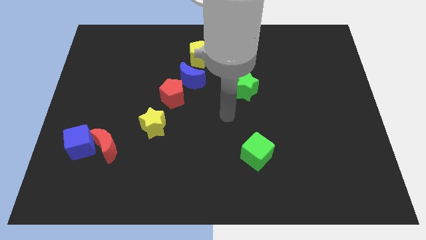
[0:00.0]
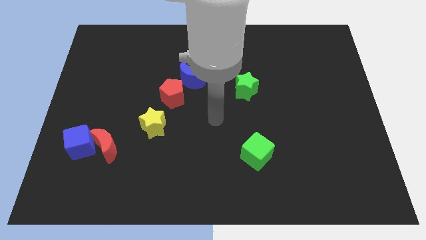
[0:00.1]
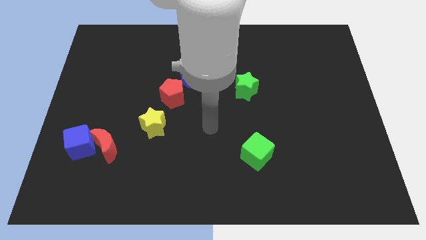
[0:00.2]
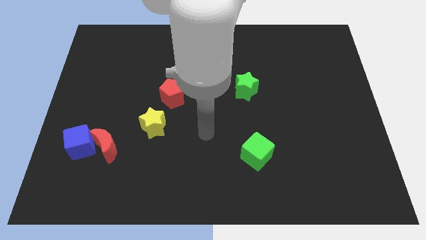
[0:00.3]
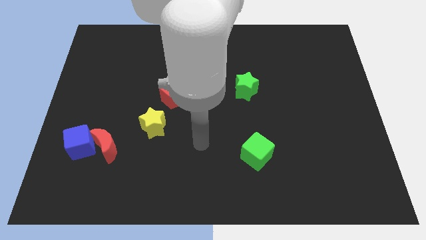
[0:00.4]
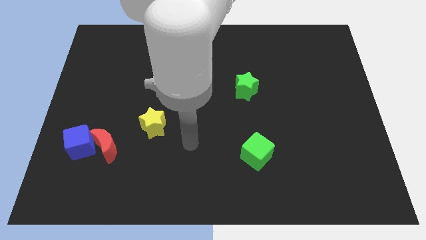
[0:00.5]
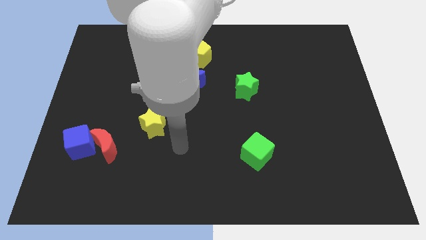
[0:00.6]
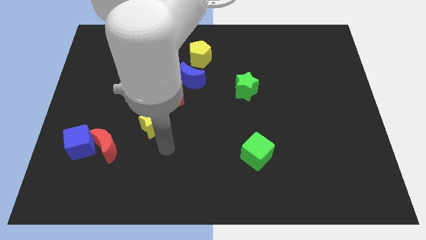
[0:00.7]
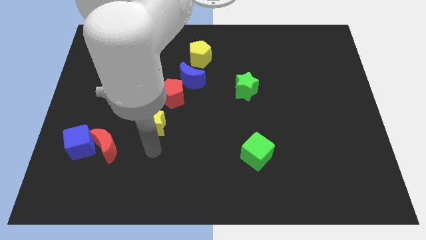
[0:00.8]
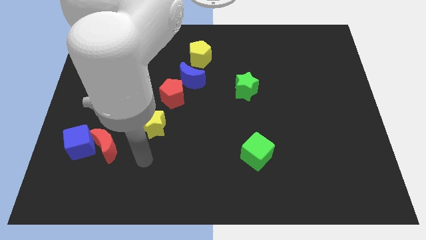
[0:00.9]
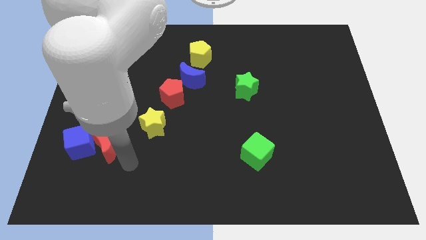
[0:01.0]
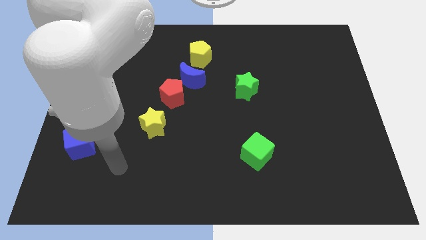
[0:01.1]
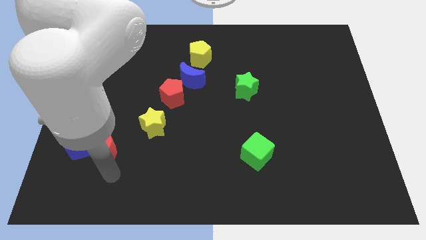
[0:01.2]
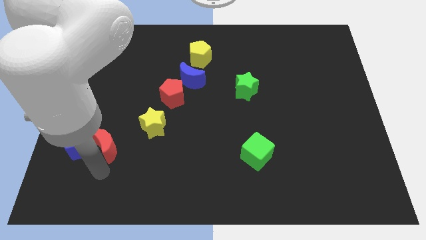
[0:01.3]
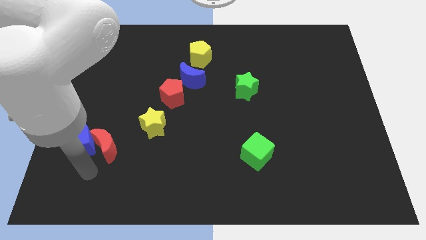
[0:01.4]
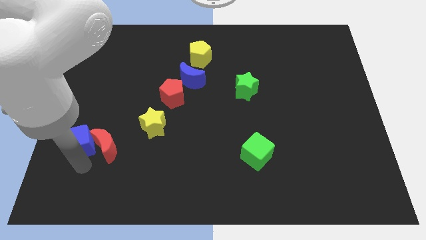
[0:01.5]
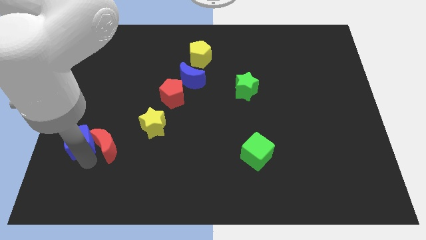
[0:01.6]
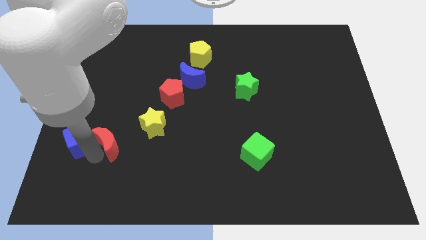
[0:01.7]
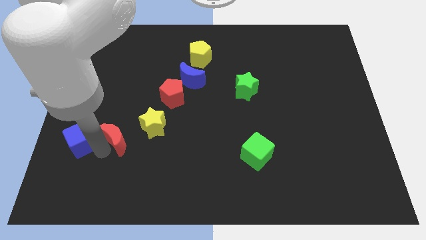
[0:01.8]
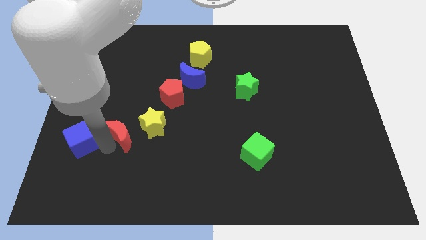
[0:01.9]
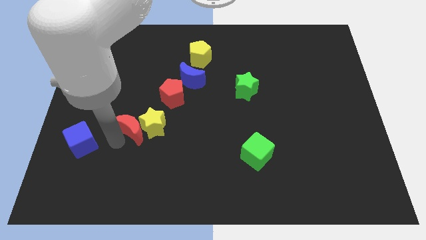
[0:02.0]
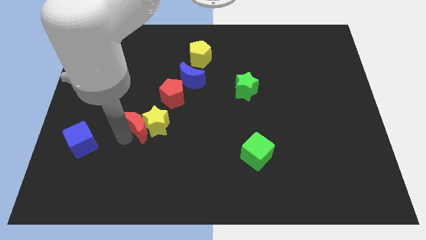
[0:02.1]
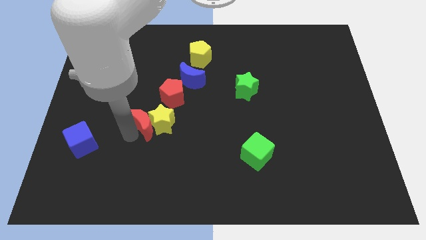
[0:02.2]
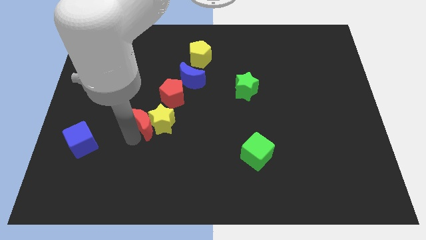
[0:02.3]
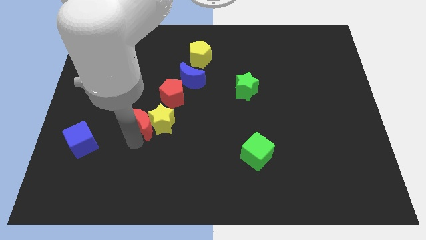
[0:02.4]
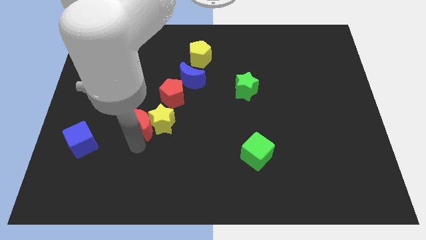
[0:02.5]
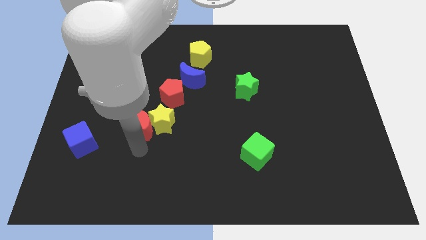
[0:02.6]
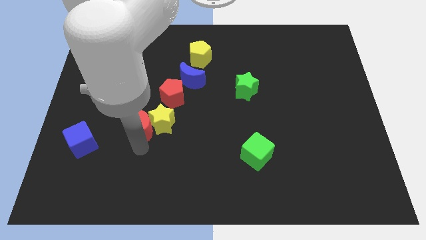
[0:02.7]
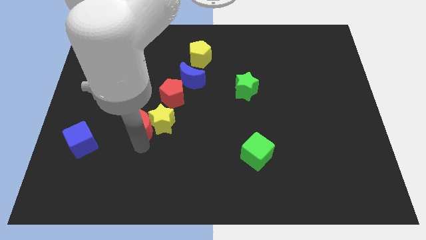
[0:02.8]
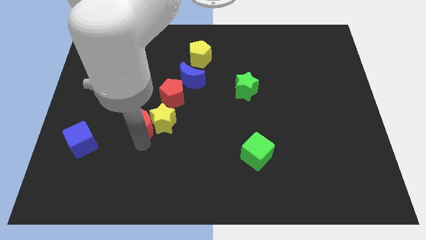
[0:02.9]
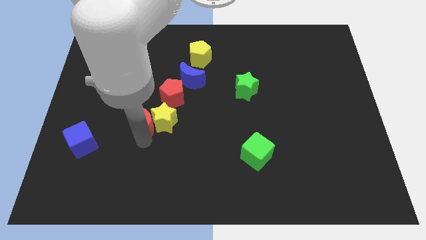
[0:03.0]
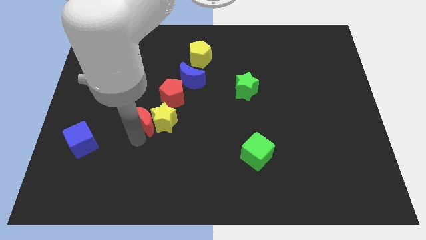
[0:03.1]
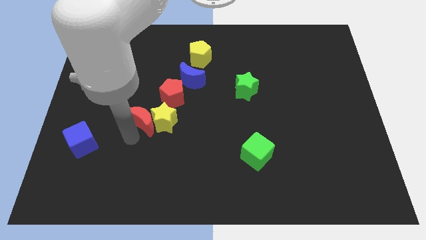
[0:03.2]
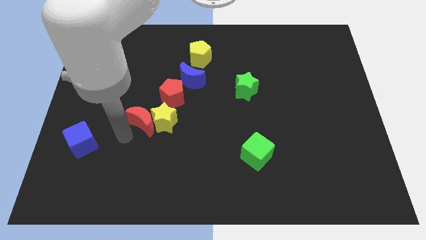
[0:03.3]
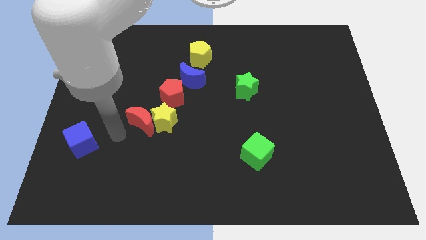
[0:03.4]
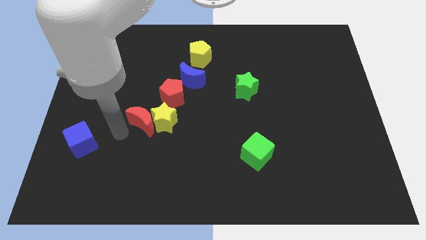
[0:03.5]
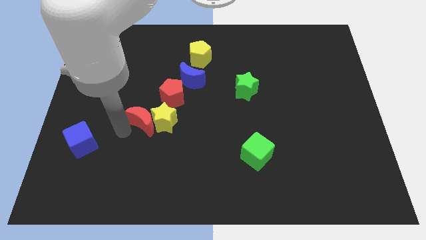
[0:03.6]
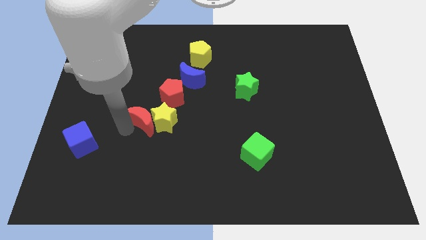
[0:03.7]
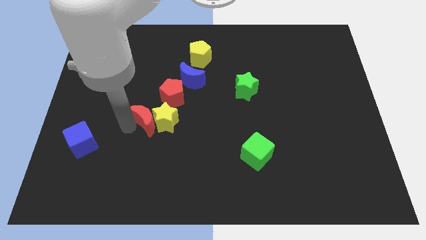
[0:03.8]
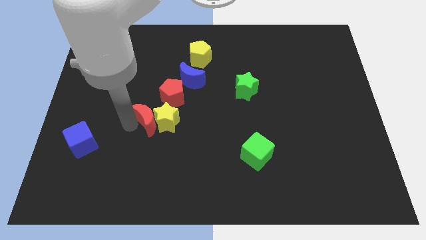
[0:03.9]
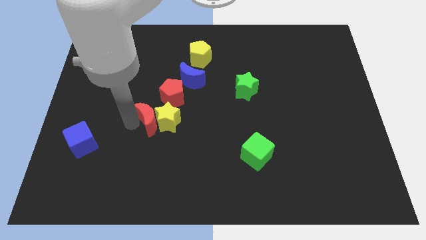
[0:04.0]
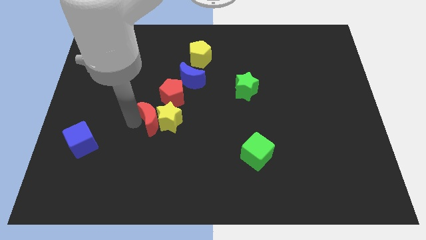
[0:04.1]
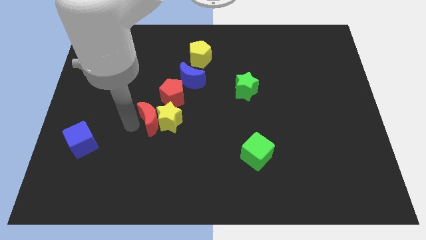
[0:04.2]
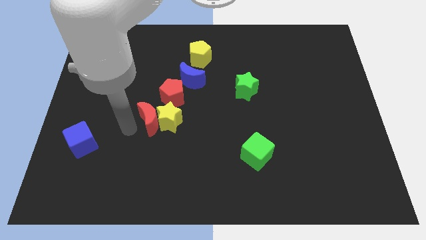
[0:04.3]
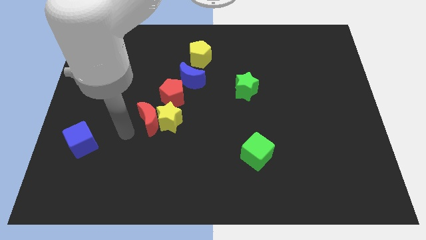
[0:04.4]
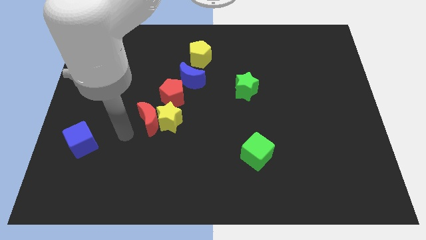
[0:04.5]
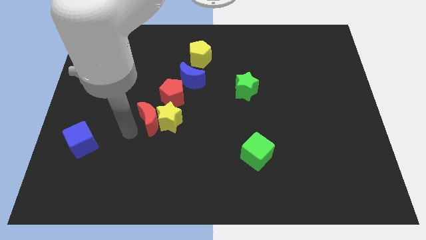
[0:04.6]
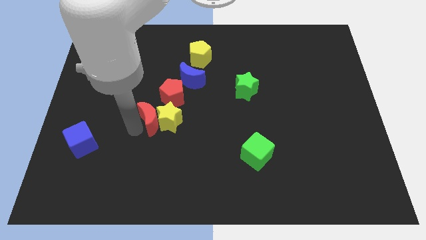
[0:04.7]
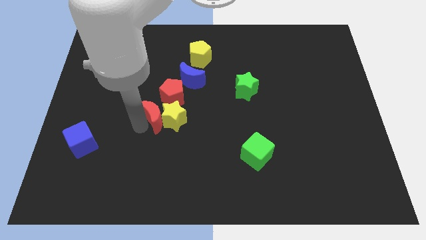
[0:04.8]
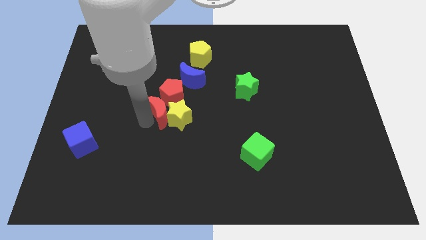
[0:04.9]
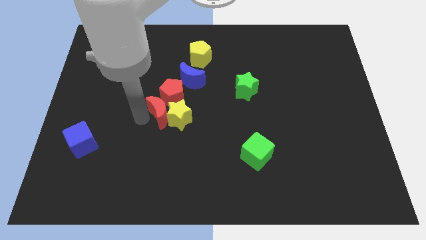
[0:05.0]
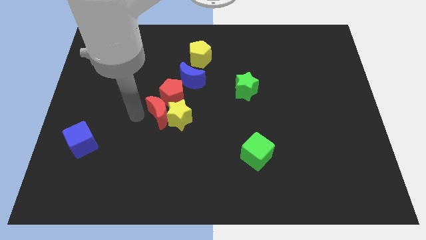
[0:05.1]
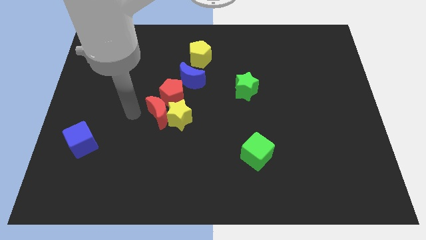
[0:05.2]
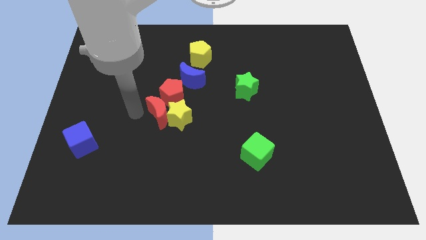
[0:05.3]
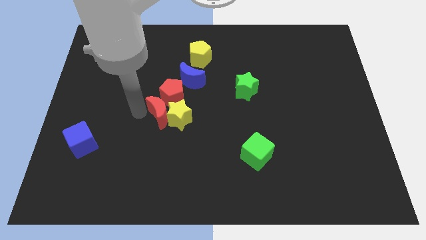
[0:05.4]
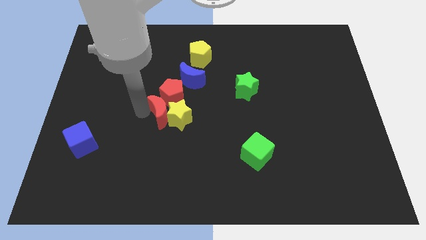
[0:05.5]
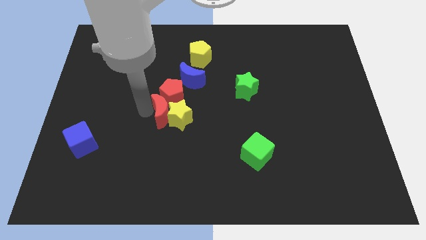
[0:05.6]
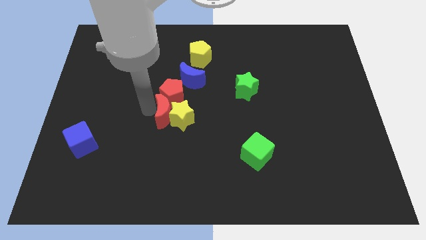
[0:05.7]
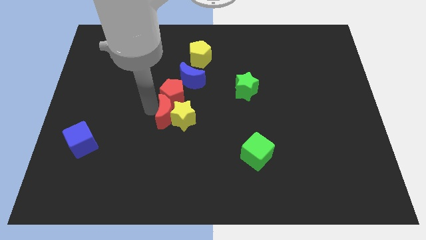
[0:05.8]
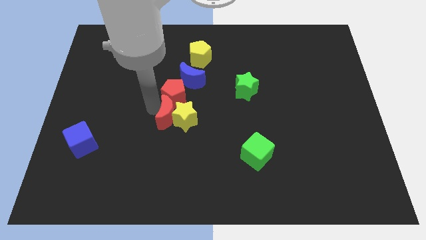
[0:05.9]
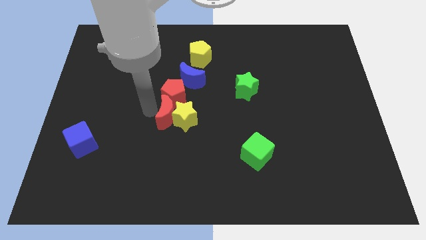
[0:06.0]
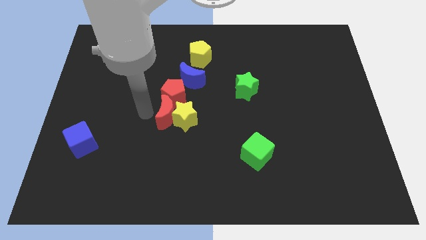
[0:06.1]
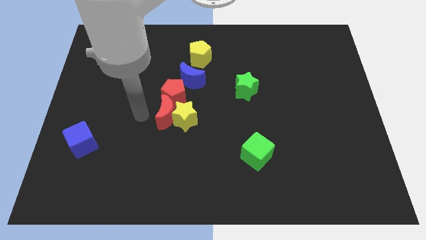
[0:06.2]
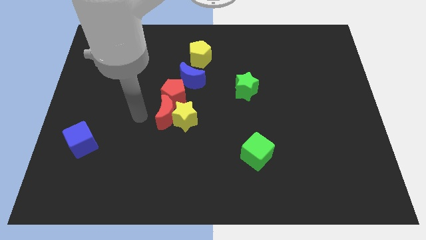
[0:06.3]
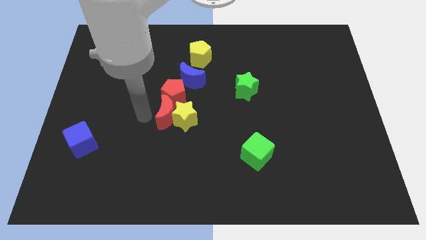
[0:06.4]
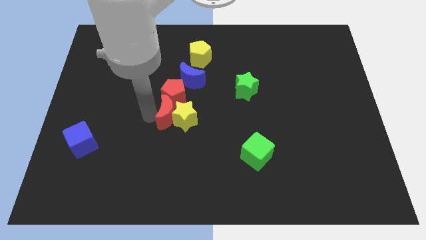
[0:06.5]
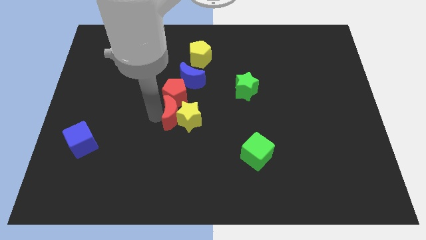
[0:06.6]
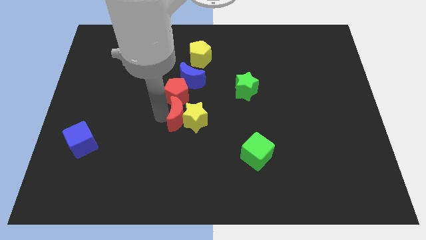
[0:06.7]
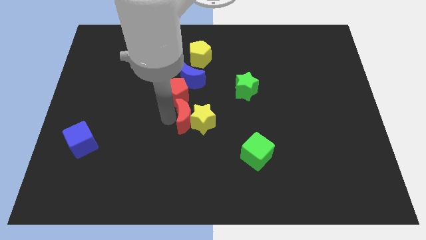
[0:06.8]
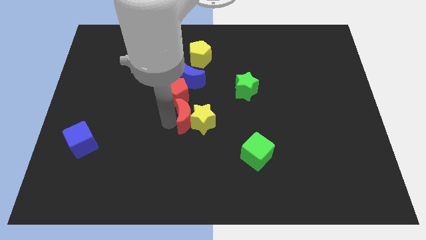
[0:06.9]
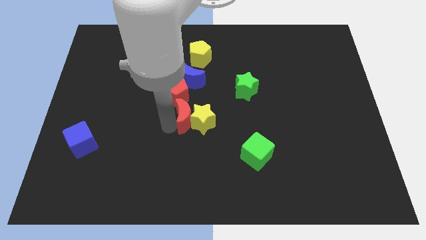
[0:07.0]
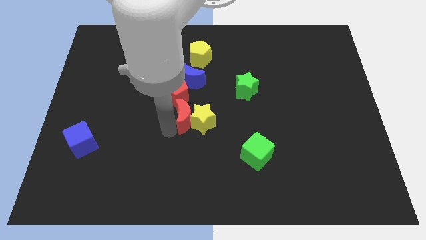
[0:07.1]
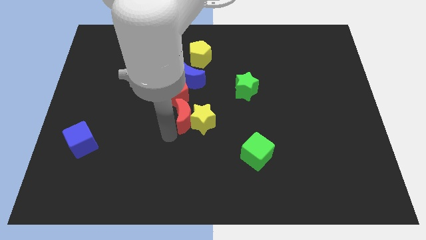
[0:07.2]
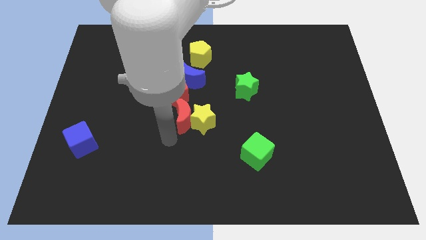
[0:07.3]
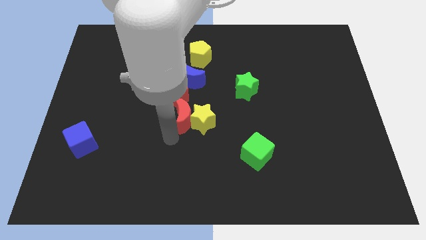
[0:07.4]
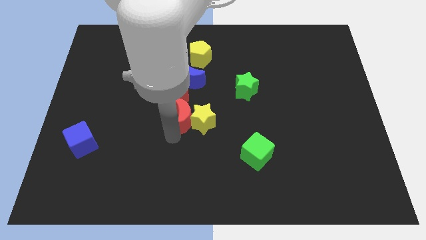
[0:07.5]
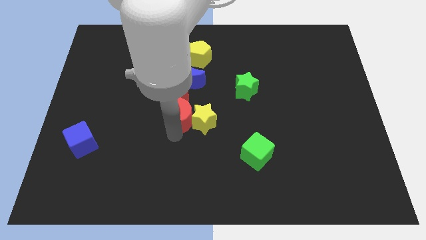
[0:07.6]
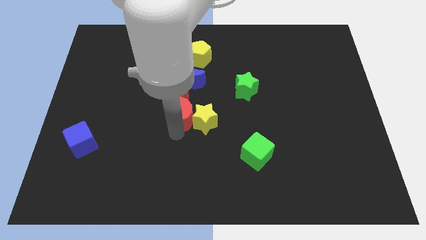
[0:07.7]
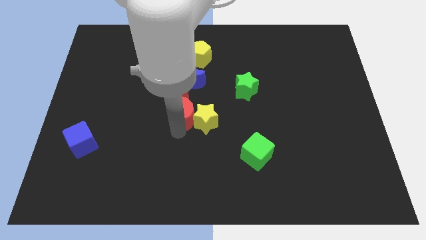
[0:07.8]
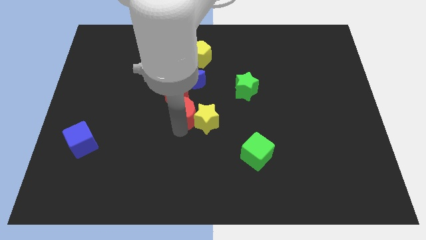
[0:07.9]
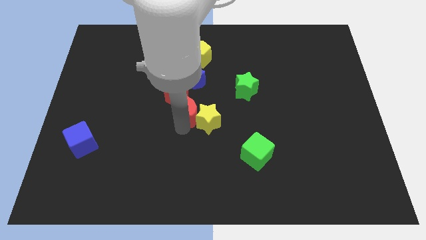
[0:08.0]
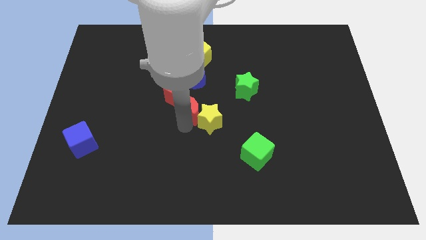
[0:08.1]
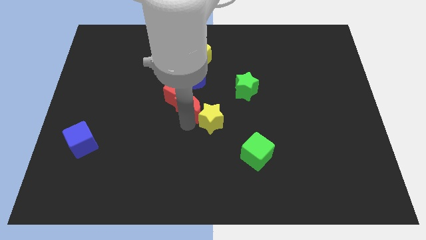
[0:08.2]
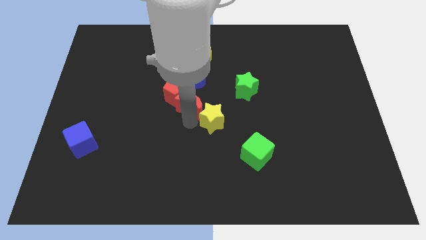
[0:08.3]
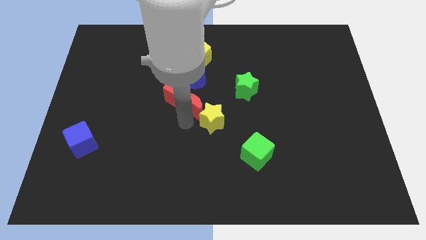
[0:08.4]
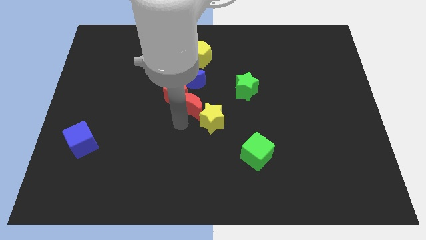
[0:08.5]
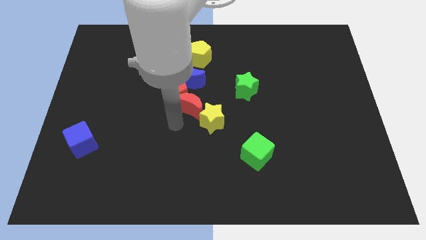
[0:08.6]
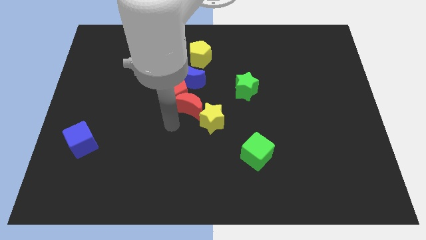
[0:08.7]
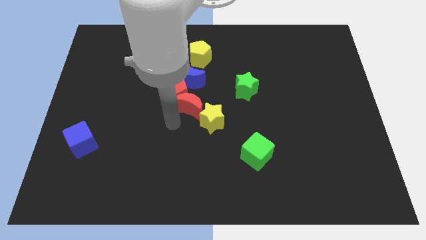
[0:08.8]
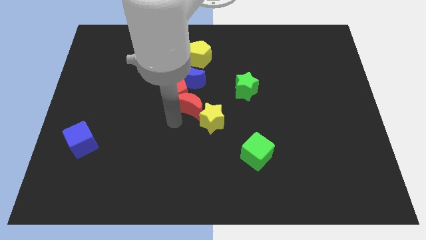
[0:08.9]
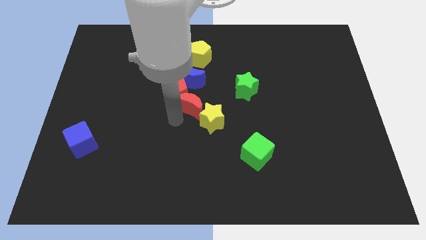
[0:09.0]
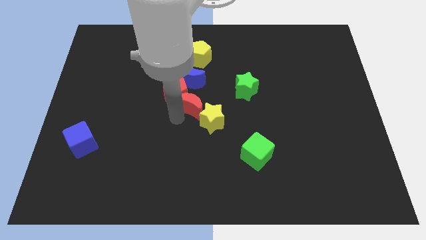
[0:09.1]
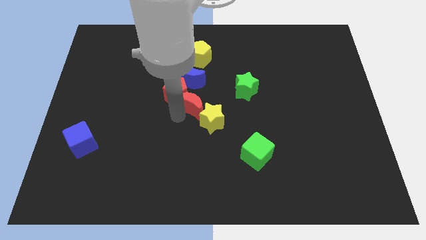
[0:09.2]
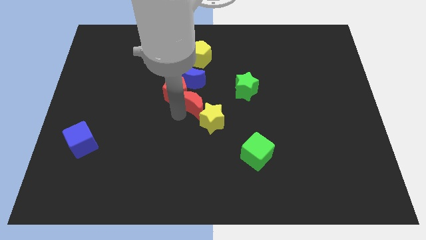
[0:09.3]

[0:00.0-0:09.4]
move the red moon up and then right
